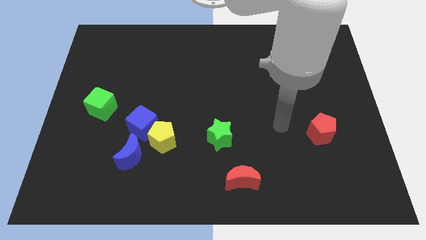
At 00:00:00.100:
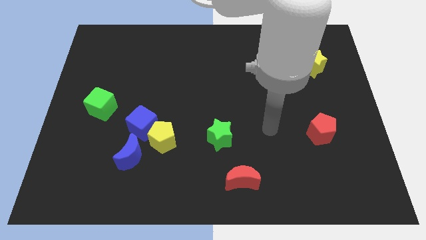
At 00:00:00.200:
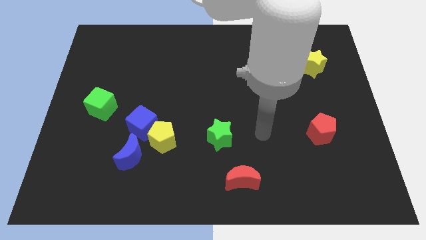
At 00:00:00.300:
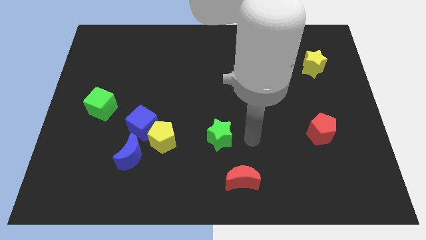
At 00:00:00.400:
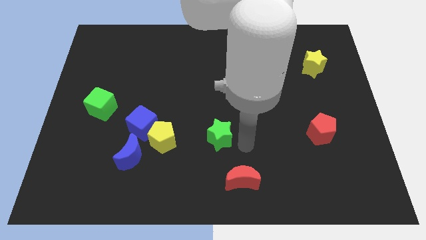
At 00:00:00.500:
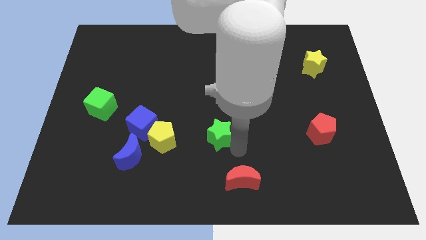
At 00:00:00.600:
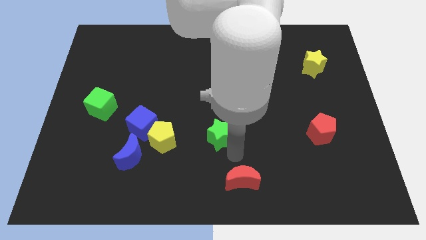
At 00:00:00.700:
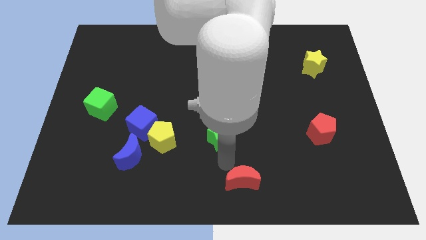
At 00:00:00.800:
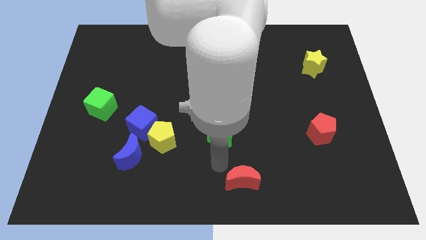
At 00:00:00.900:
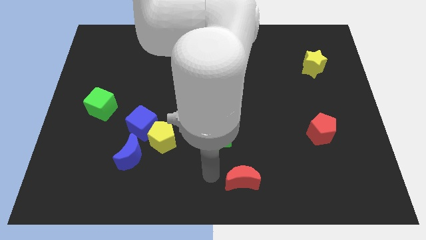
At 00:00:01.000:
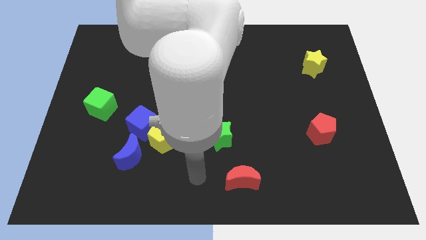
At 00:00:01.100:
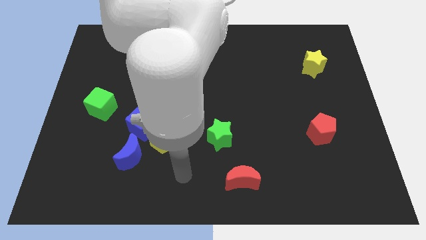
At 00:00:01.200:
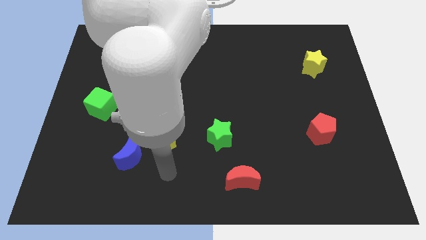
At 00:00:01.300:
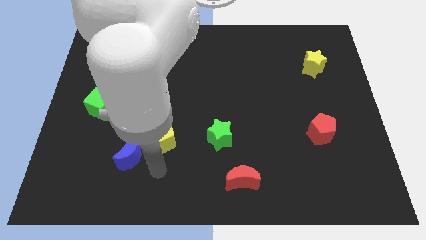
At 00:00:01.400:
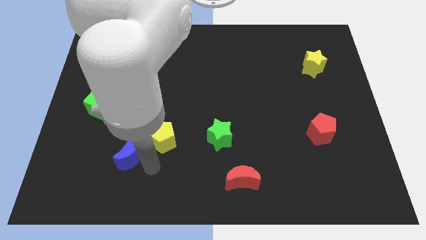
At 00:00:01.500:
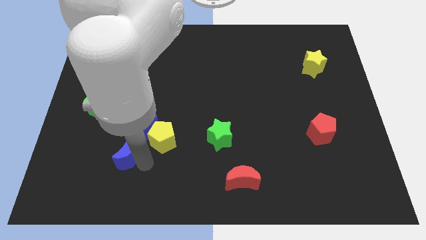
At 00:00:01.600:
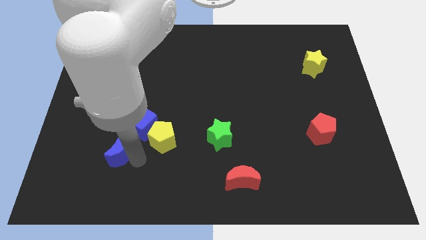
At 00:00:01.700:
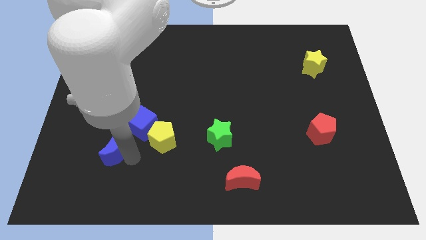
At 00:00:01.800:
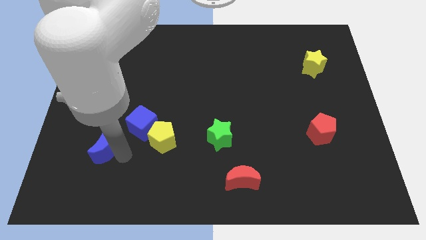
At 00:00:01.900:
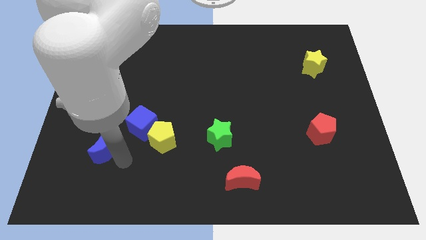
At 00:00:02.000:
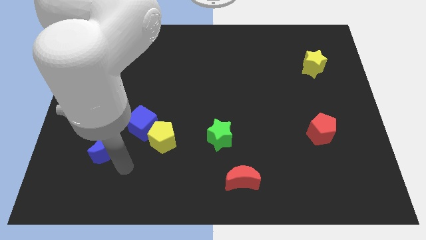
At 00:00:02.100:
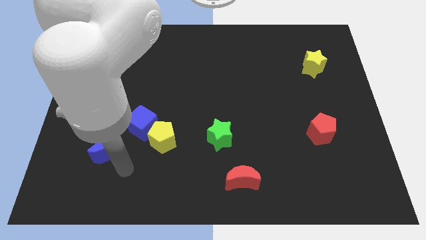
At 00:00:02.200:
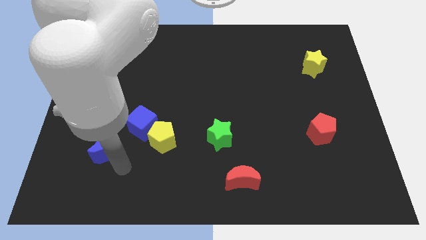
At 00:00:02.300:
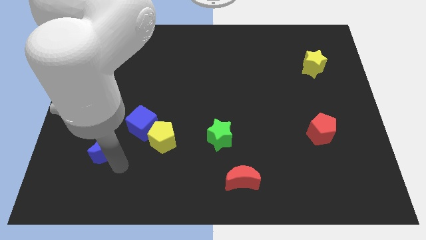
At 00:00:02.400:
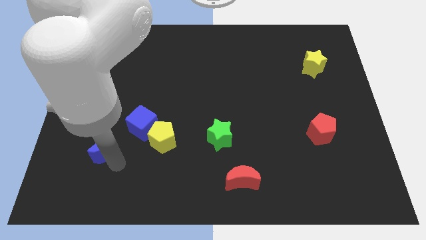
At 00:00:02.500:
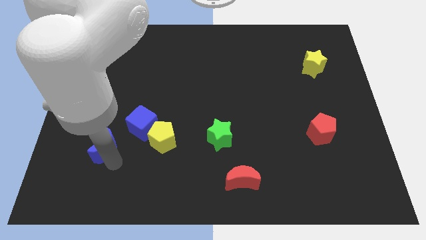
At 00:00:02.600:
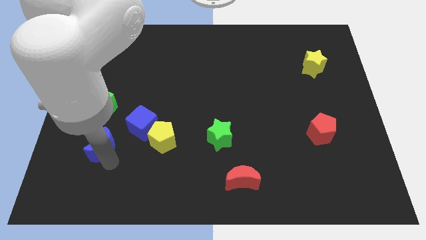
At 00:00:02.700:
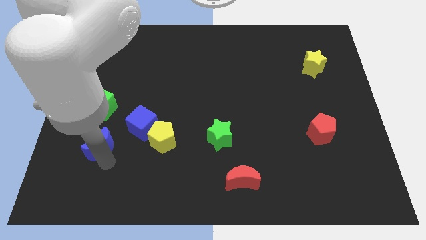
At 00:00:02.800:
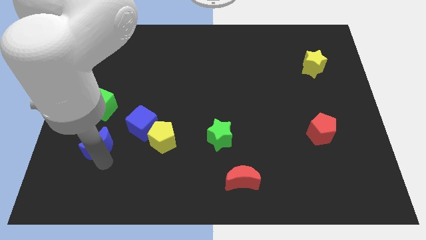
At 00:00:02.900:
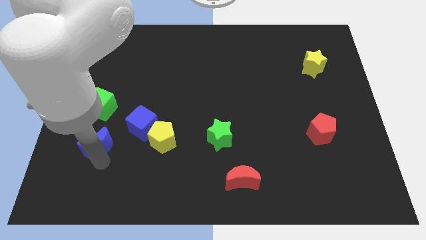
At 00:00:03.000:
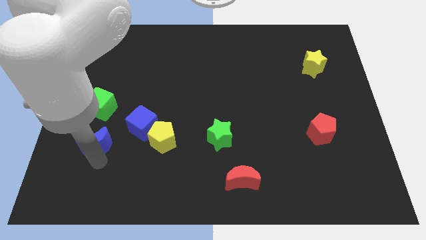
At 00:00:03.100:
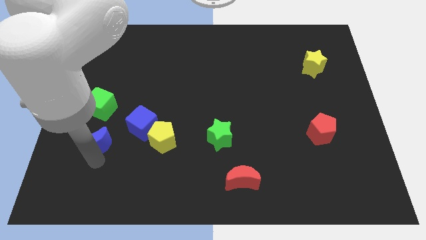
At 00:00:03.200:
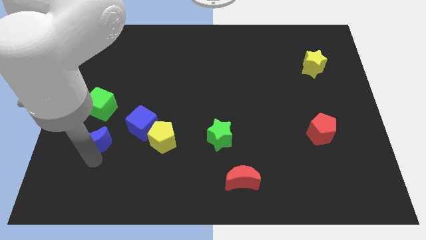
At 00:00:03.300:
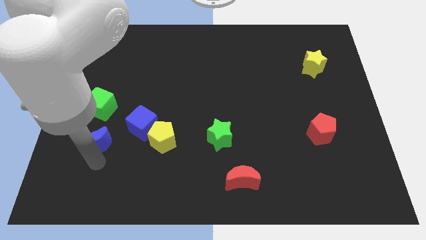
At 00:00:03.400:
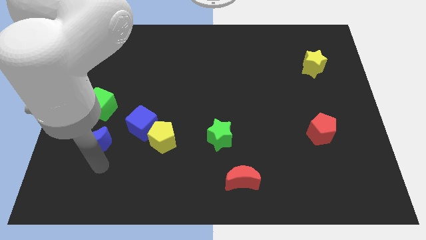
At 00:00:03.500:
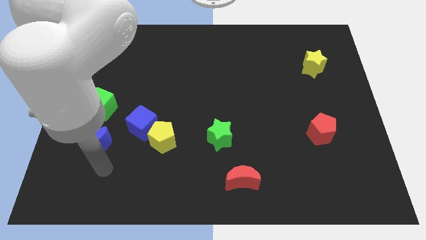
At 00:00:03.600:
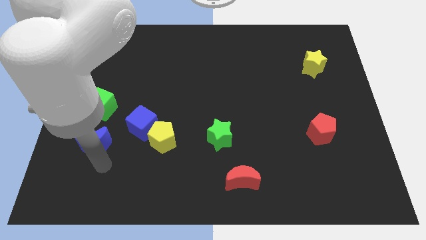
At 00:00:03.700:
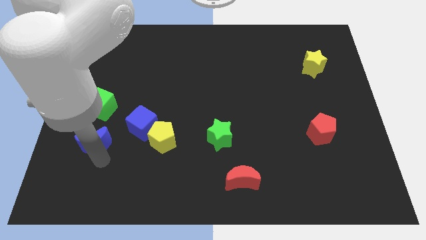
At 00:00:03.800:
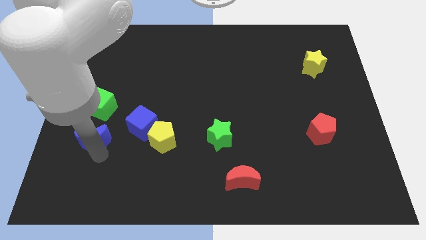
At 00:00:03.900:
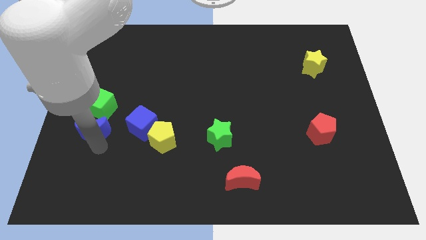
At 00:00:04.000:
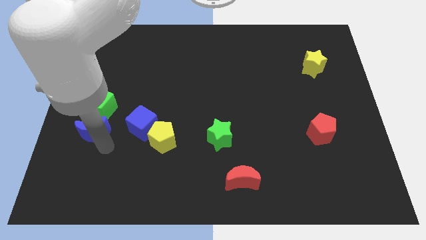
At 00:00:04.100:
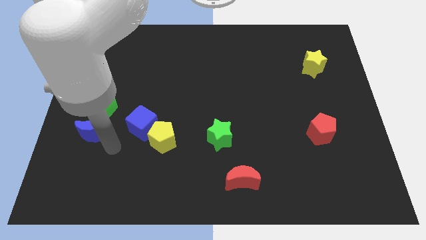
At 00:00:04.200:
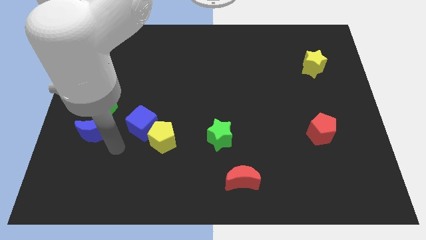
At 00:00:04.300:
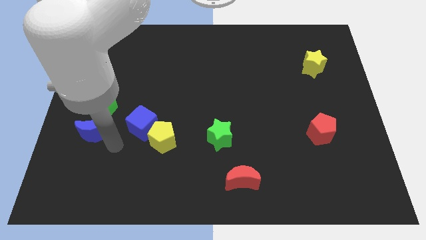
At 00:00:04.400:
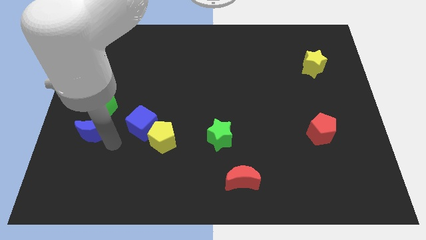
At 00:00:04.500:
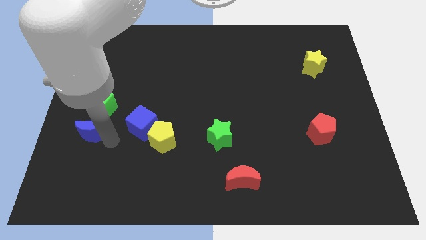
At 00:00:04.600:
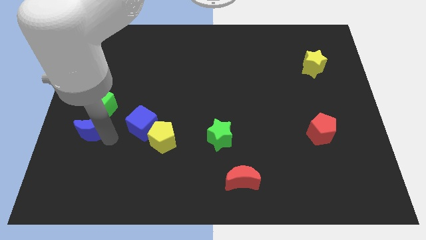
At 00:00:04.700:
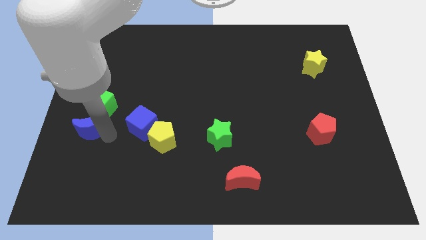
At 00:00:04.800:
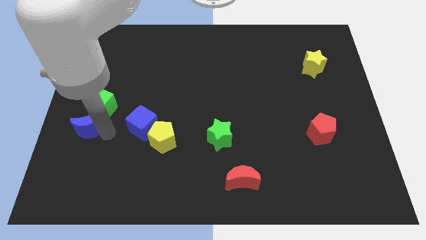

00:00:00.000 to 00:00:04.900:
move the blue moon to the center left

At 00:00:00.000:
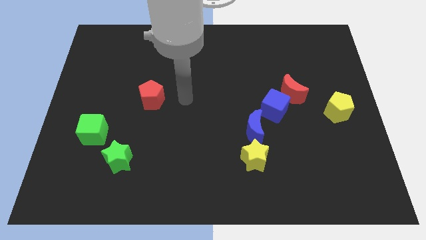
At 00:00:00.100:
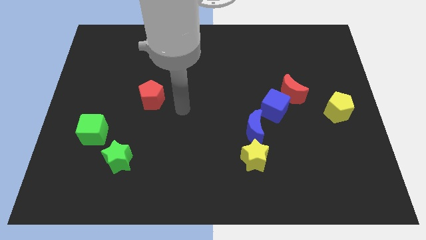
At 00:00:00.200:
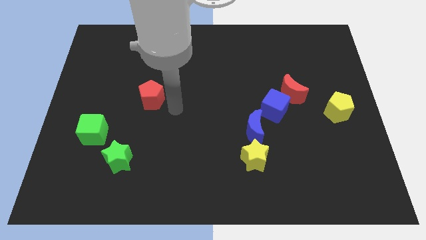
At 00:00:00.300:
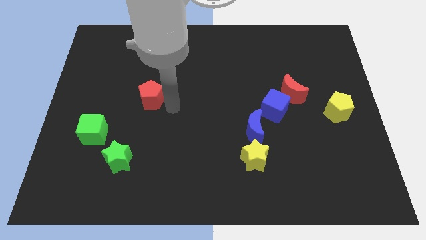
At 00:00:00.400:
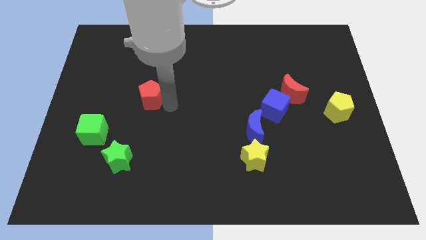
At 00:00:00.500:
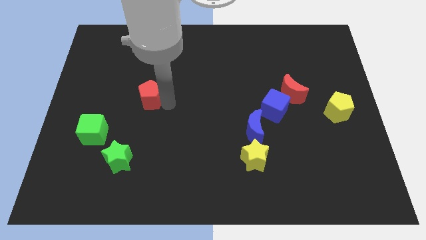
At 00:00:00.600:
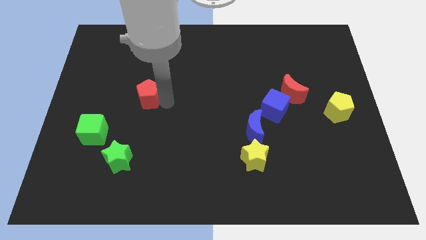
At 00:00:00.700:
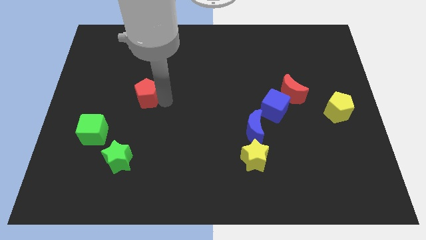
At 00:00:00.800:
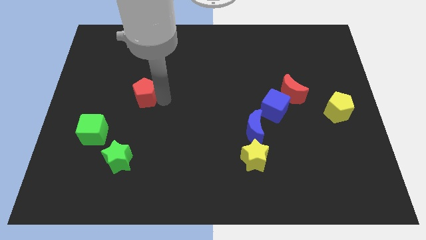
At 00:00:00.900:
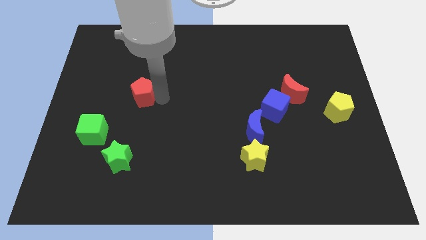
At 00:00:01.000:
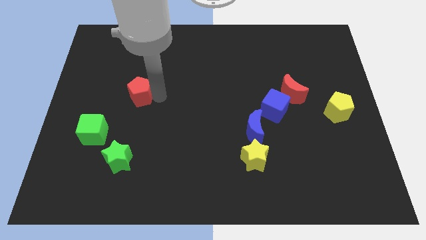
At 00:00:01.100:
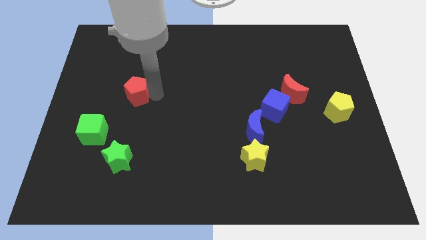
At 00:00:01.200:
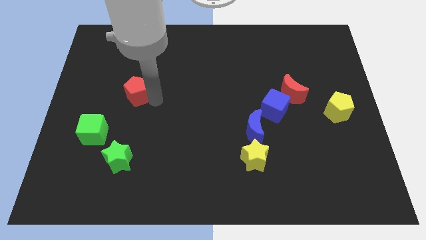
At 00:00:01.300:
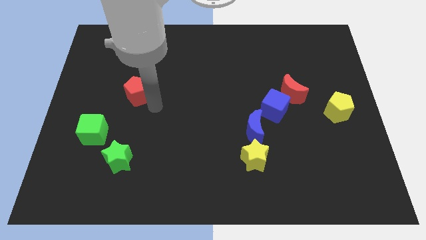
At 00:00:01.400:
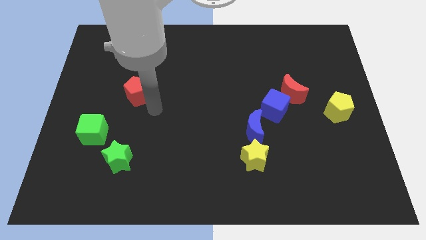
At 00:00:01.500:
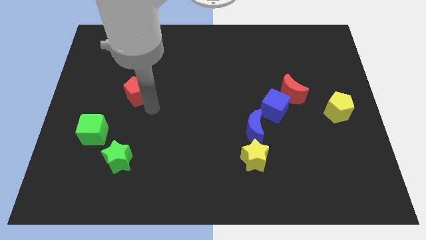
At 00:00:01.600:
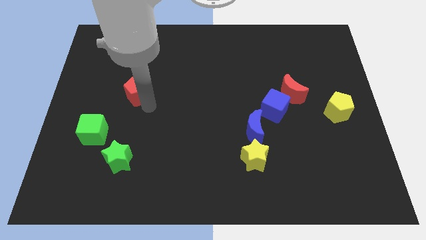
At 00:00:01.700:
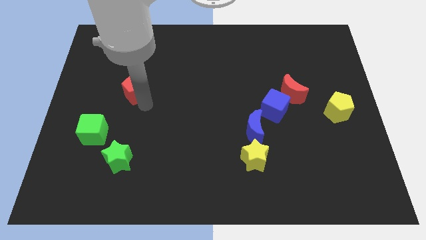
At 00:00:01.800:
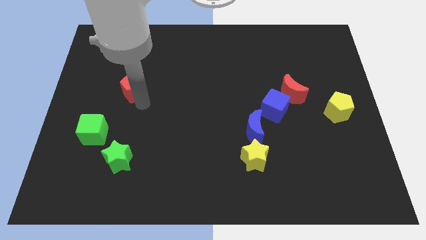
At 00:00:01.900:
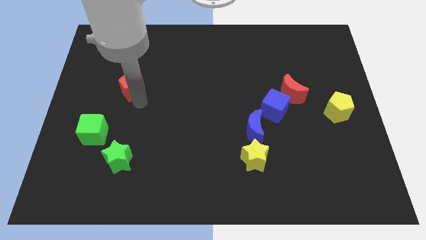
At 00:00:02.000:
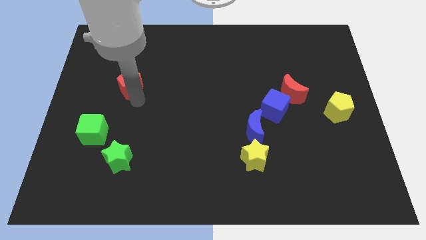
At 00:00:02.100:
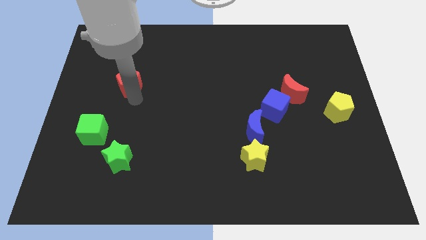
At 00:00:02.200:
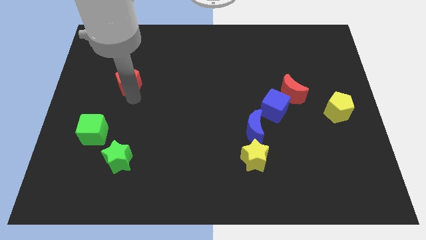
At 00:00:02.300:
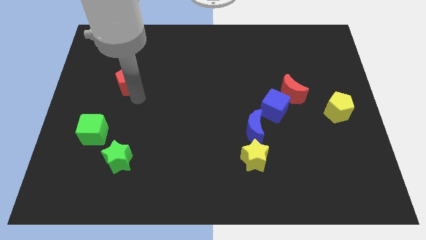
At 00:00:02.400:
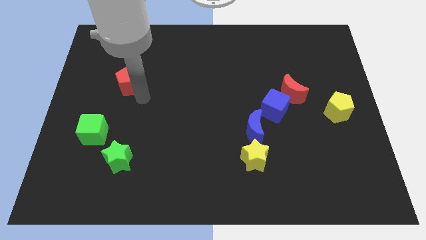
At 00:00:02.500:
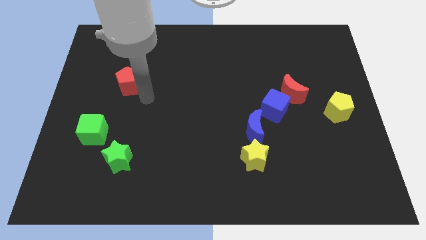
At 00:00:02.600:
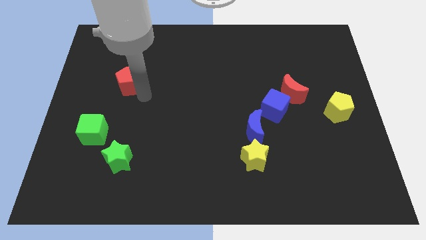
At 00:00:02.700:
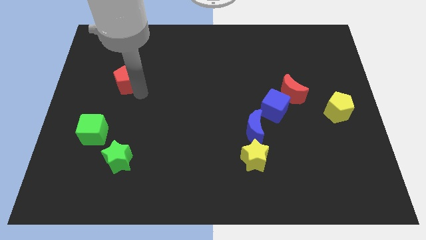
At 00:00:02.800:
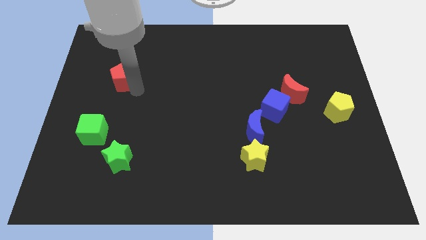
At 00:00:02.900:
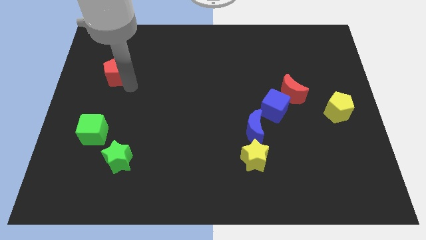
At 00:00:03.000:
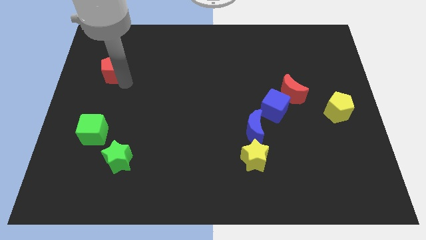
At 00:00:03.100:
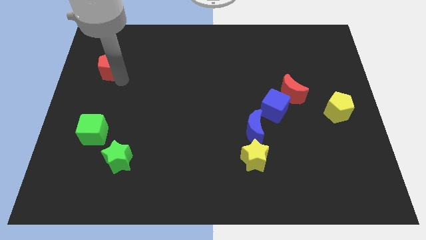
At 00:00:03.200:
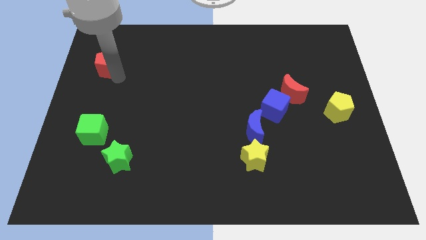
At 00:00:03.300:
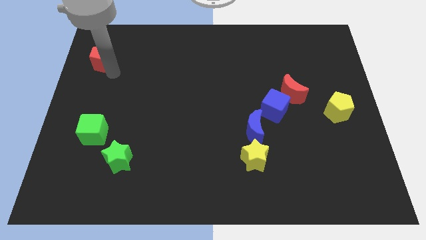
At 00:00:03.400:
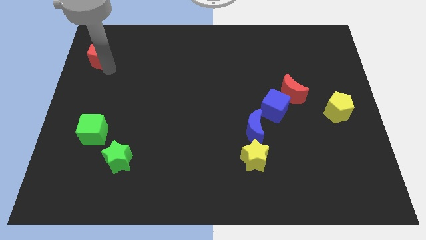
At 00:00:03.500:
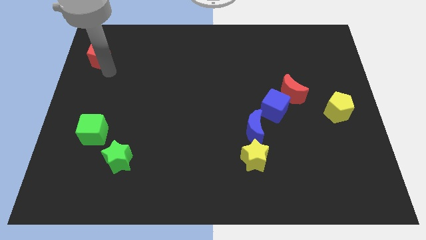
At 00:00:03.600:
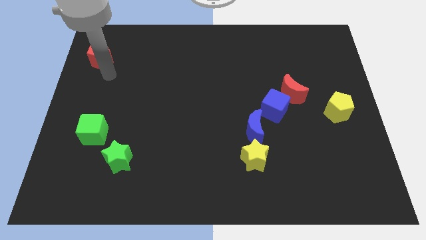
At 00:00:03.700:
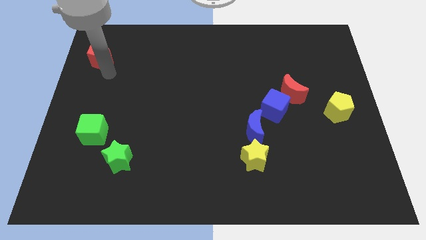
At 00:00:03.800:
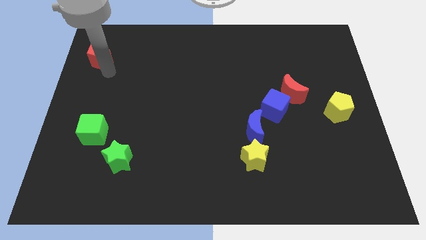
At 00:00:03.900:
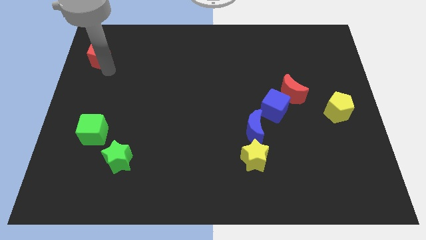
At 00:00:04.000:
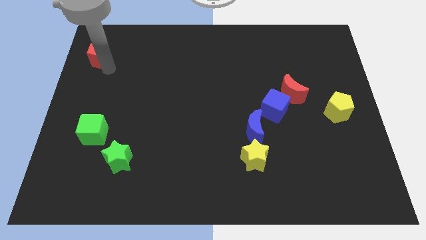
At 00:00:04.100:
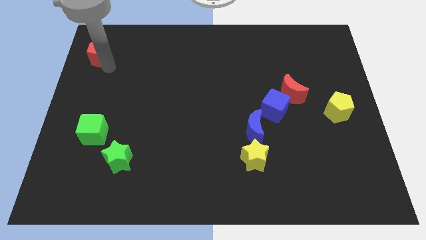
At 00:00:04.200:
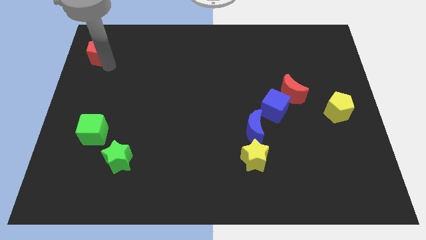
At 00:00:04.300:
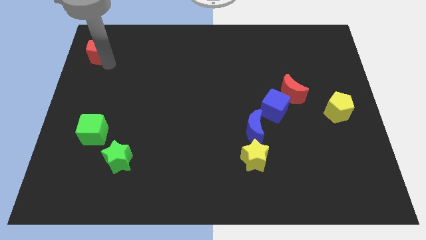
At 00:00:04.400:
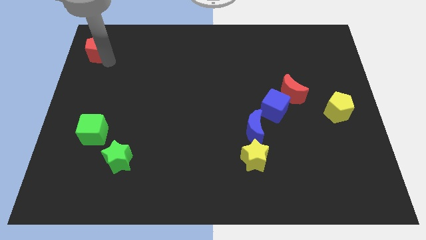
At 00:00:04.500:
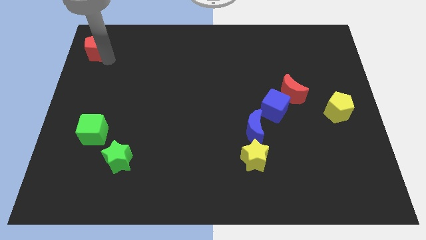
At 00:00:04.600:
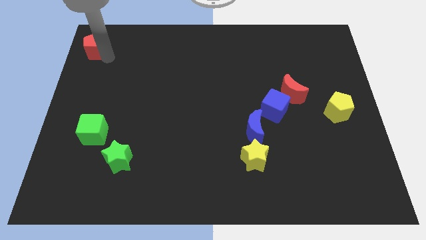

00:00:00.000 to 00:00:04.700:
push the red pentagon to the top left corner
